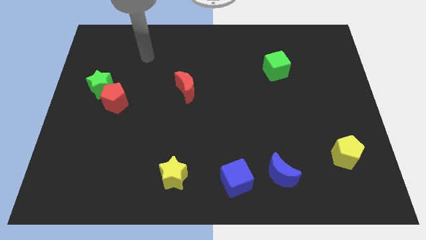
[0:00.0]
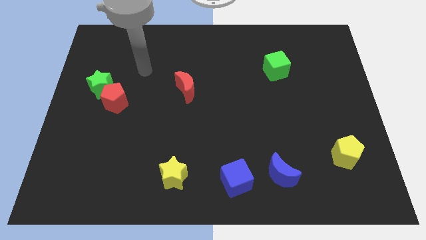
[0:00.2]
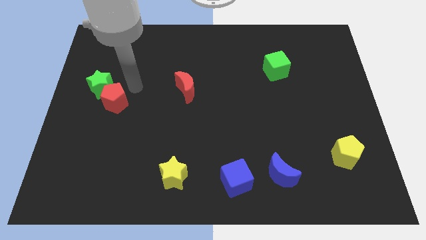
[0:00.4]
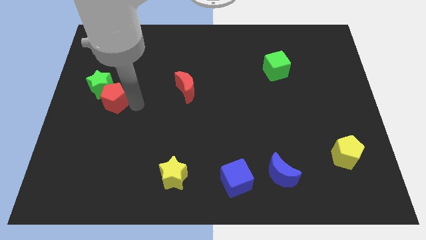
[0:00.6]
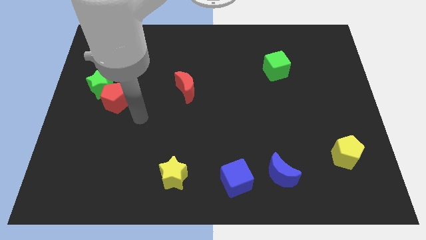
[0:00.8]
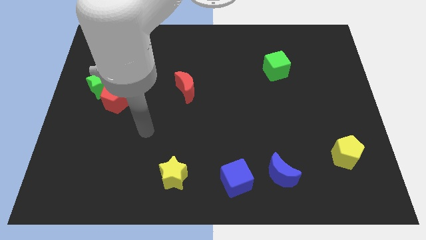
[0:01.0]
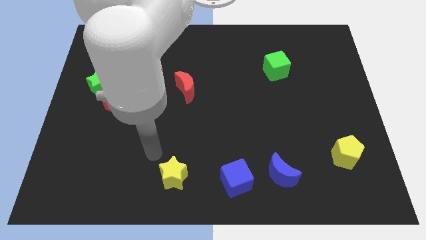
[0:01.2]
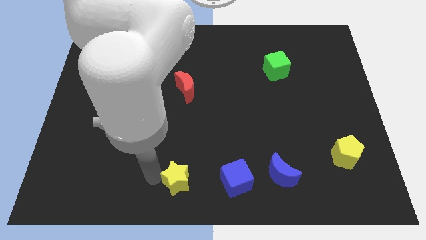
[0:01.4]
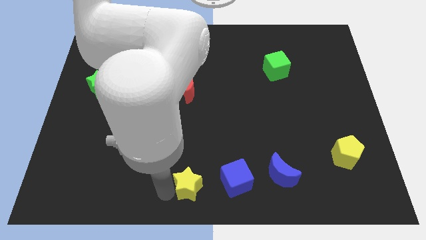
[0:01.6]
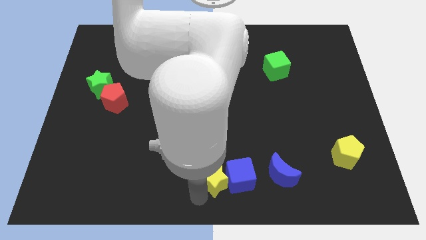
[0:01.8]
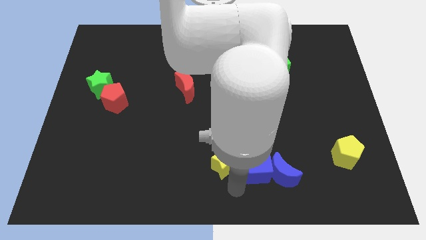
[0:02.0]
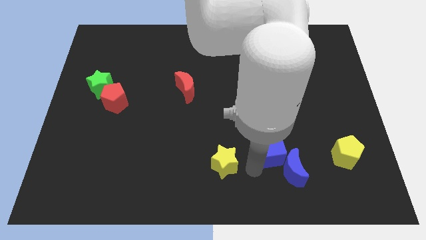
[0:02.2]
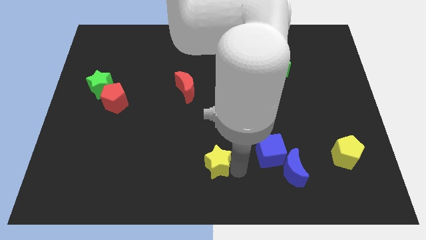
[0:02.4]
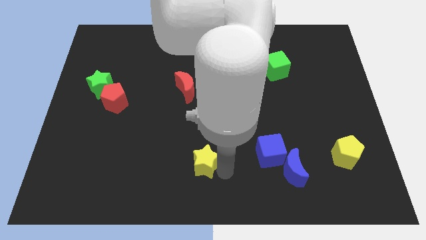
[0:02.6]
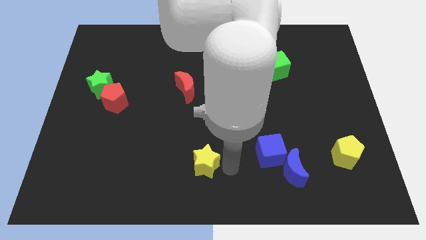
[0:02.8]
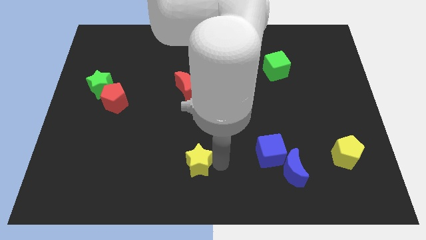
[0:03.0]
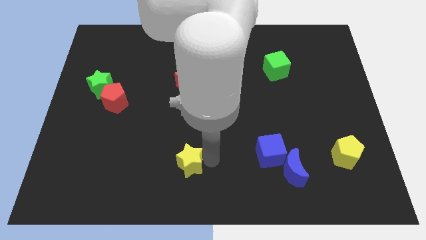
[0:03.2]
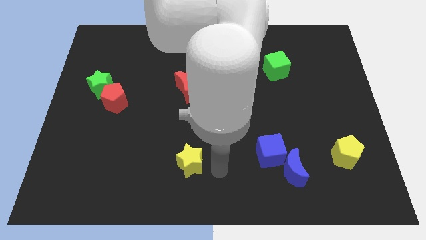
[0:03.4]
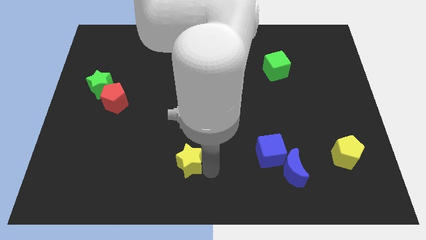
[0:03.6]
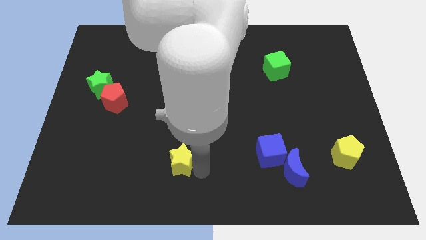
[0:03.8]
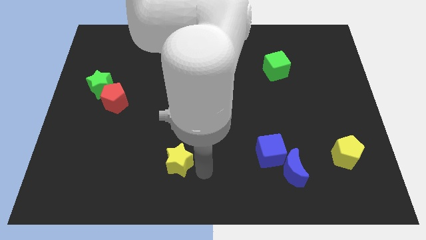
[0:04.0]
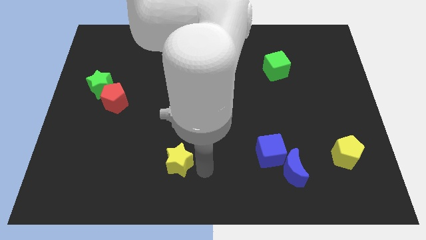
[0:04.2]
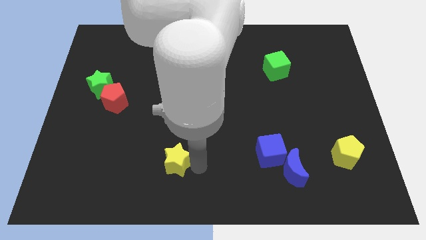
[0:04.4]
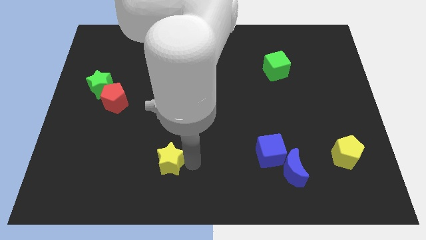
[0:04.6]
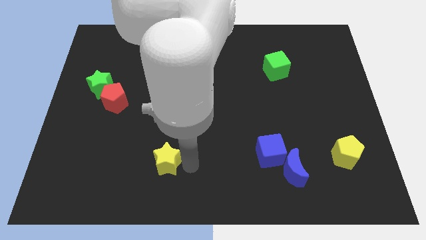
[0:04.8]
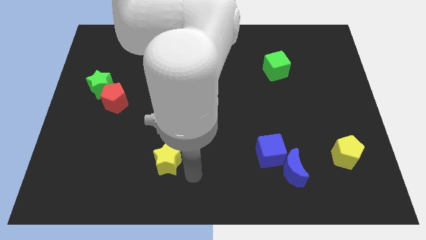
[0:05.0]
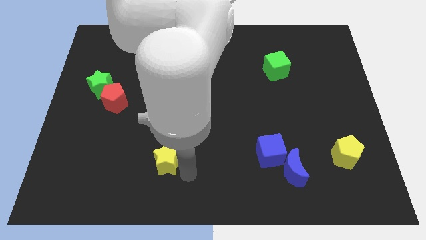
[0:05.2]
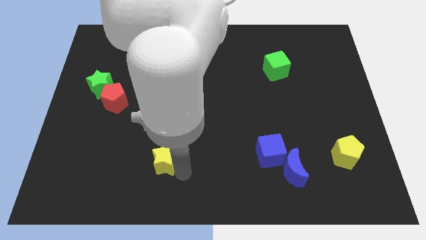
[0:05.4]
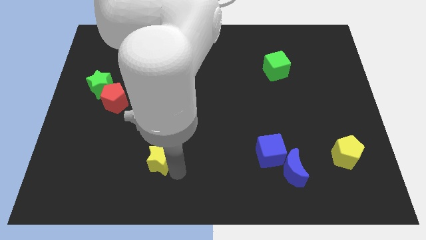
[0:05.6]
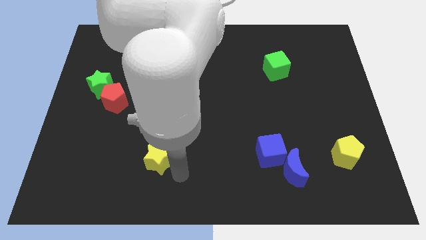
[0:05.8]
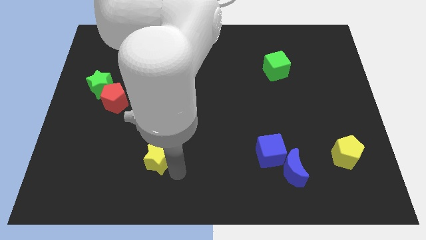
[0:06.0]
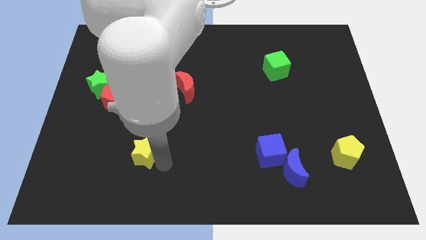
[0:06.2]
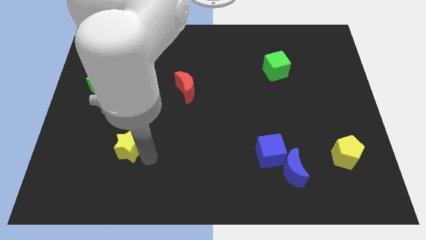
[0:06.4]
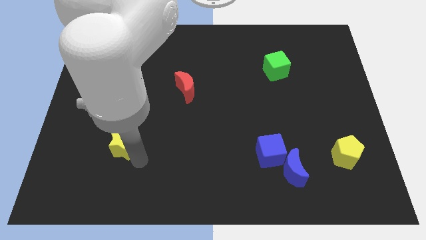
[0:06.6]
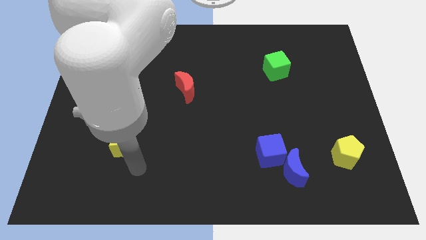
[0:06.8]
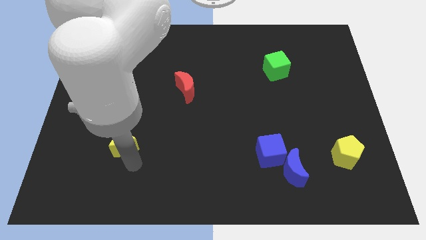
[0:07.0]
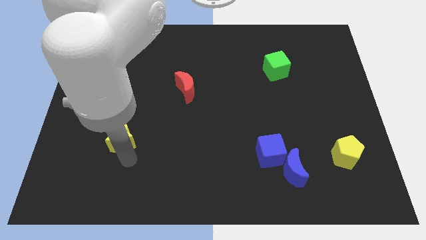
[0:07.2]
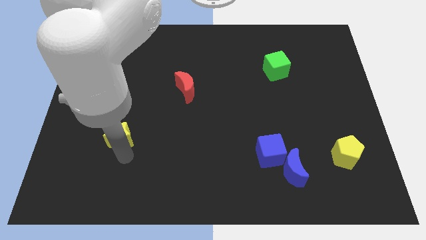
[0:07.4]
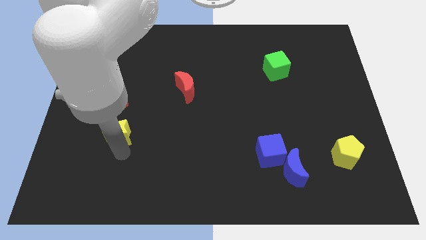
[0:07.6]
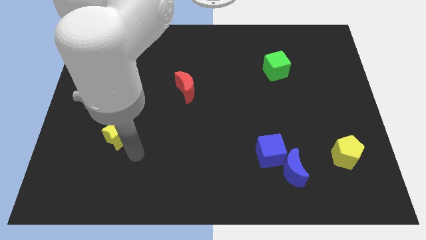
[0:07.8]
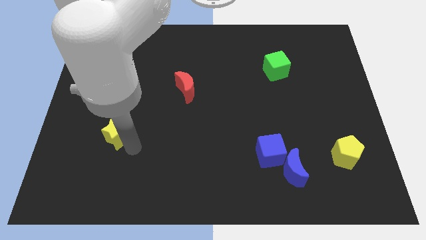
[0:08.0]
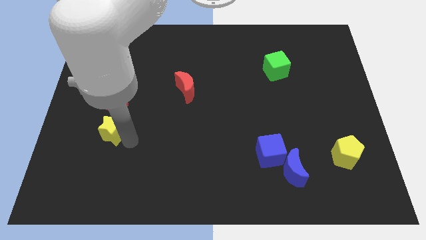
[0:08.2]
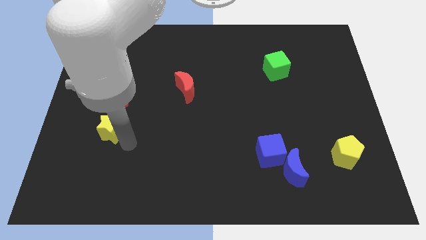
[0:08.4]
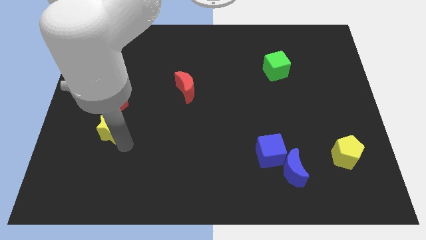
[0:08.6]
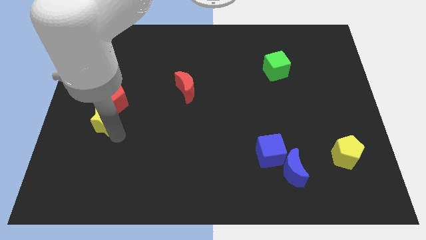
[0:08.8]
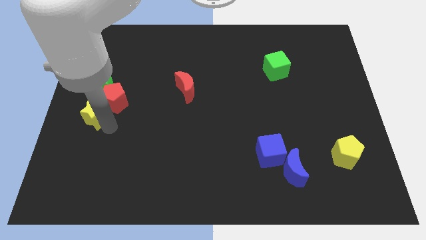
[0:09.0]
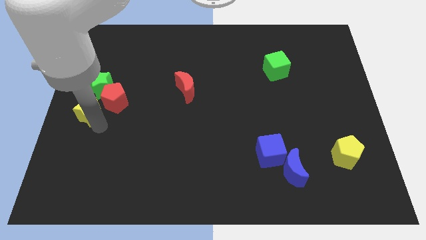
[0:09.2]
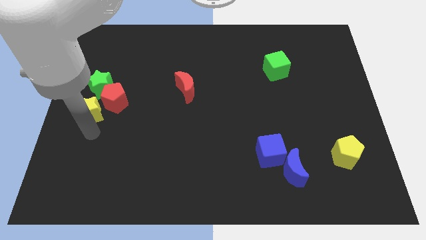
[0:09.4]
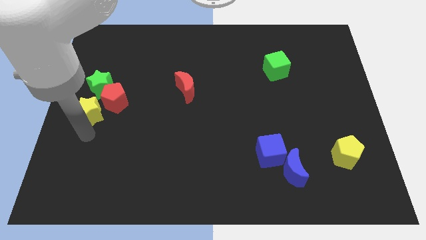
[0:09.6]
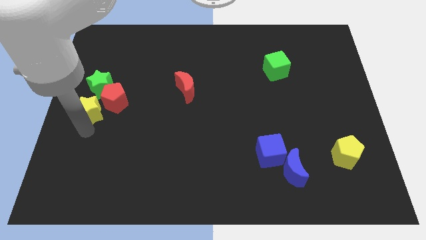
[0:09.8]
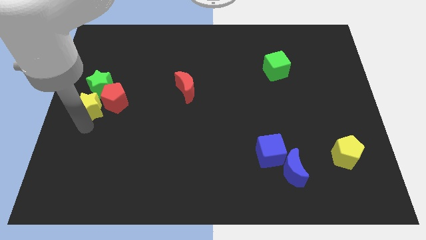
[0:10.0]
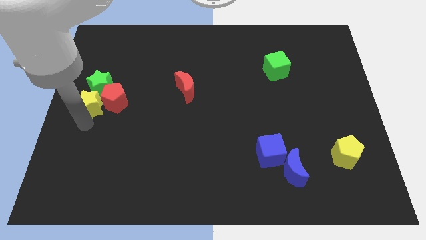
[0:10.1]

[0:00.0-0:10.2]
put the yellow star next to the green star

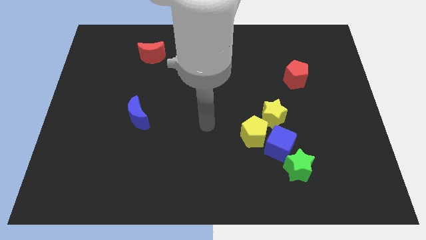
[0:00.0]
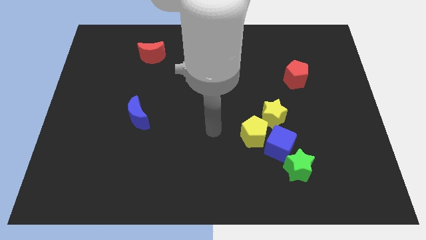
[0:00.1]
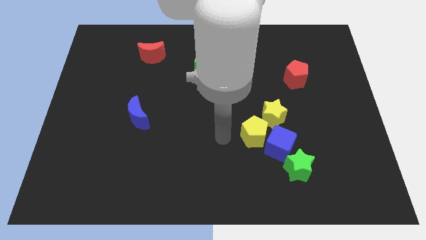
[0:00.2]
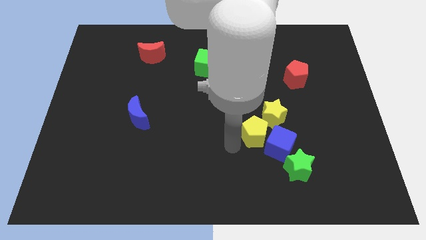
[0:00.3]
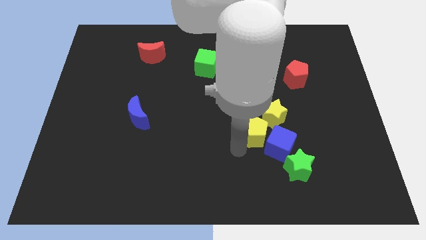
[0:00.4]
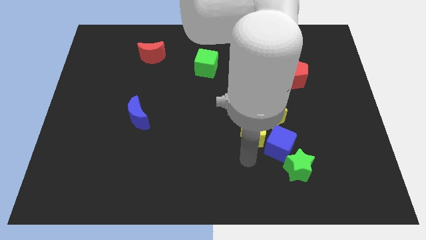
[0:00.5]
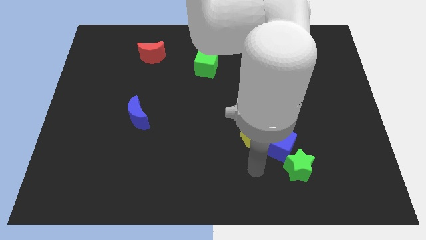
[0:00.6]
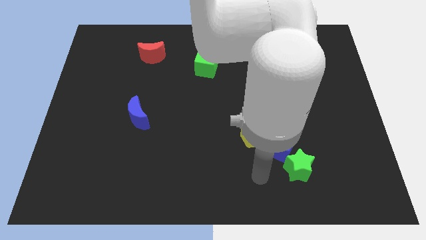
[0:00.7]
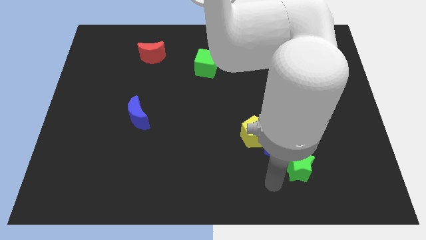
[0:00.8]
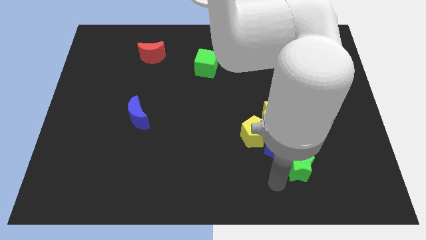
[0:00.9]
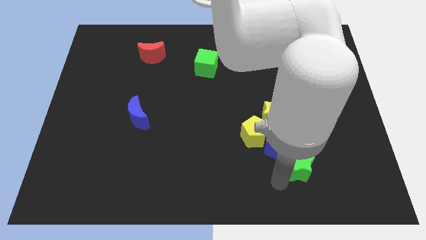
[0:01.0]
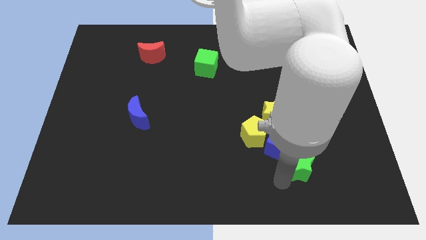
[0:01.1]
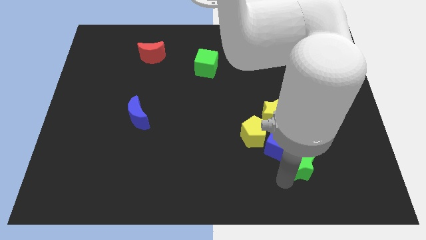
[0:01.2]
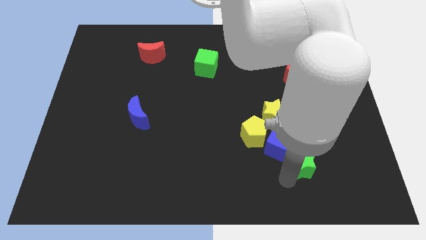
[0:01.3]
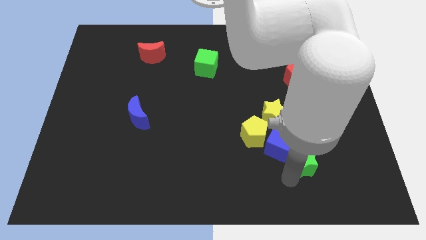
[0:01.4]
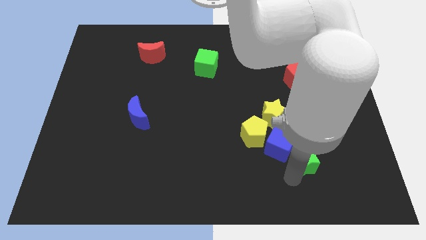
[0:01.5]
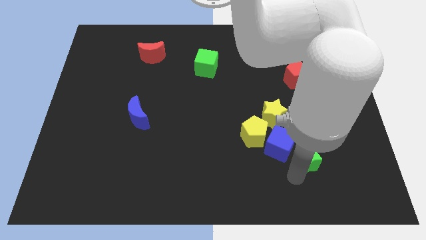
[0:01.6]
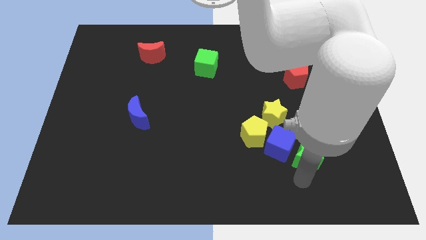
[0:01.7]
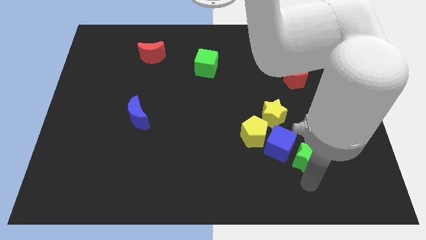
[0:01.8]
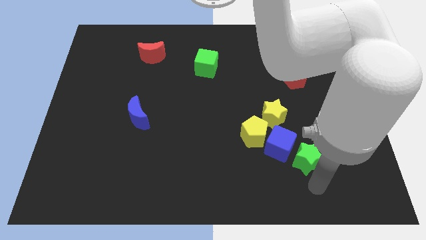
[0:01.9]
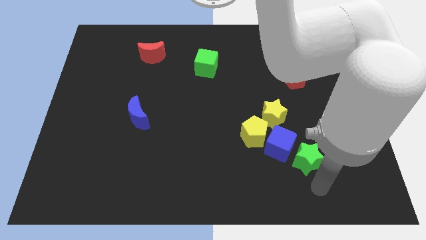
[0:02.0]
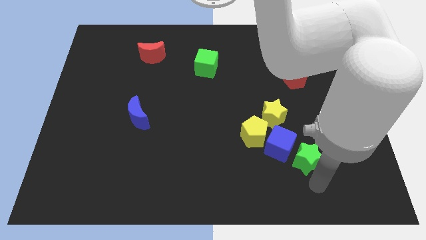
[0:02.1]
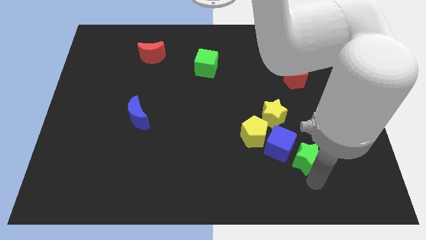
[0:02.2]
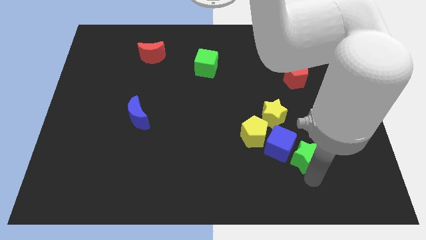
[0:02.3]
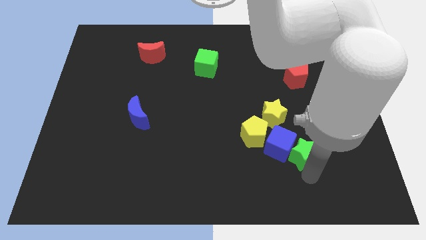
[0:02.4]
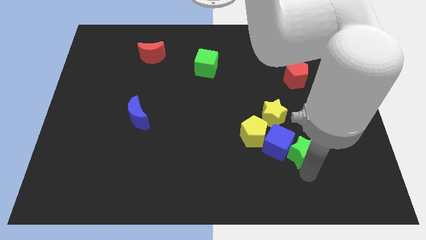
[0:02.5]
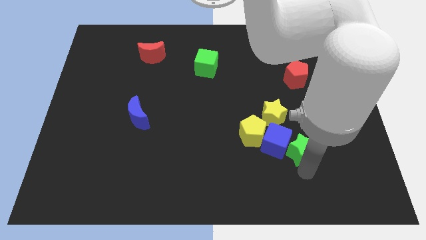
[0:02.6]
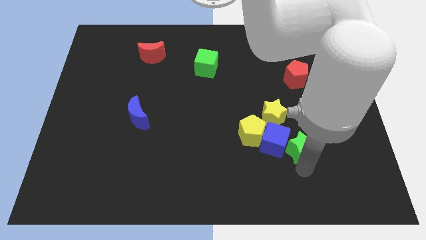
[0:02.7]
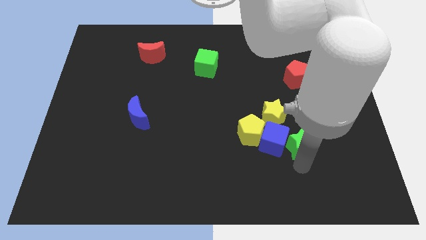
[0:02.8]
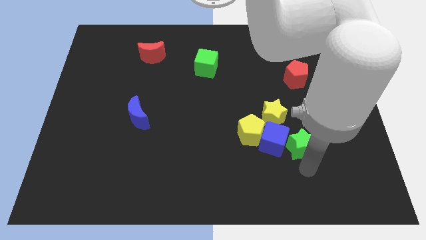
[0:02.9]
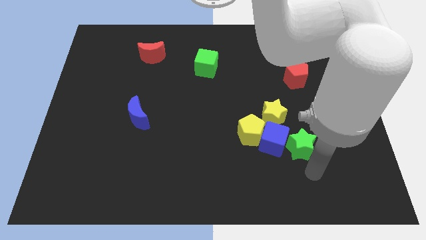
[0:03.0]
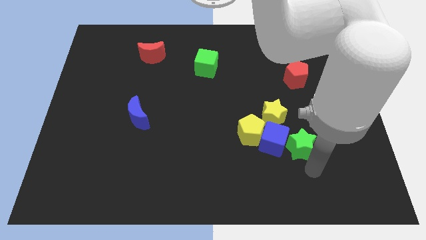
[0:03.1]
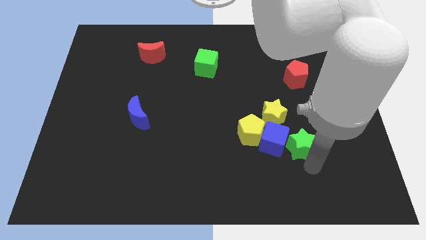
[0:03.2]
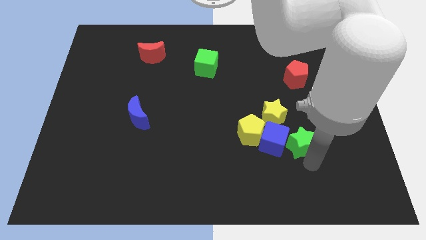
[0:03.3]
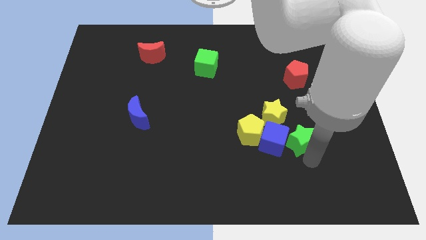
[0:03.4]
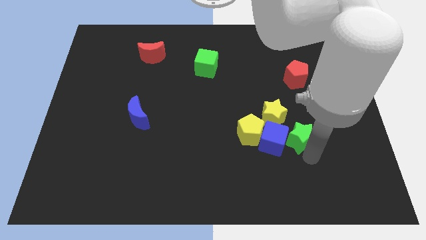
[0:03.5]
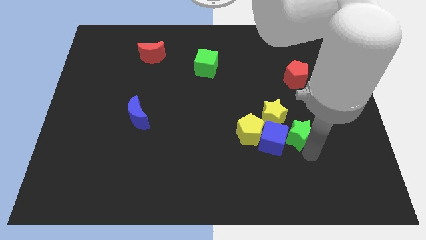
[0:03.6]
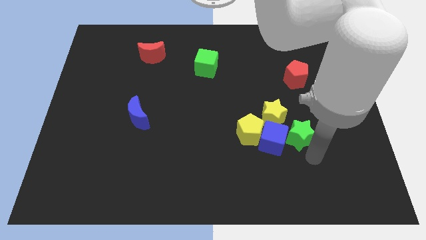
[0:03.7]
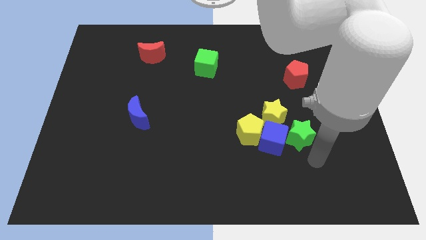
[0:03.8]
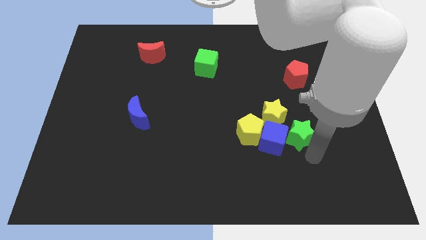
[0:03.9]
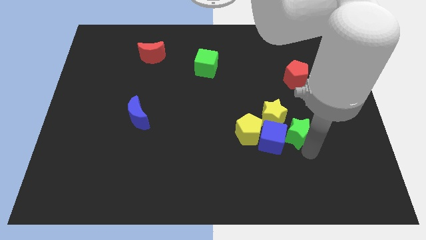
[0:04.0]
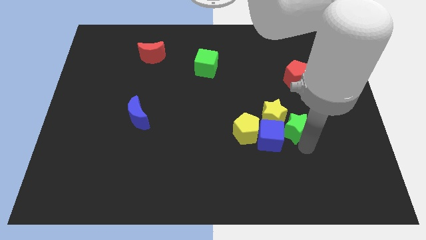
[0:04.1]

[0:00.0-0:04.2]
push the green star next to the yellow star
